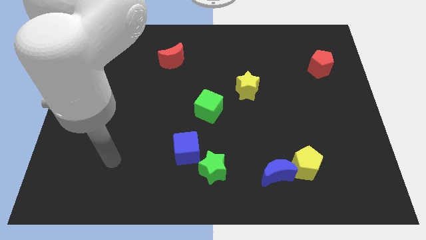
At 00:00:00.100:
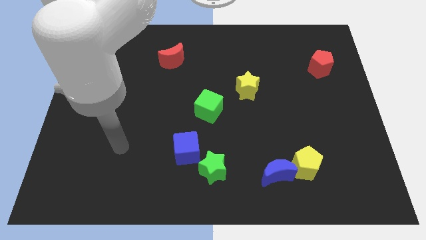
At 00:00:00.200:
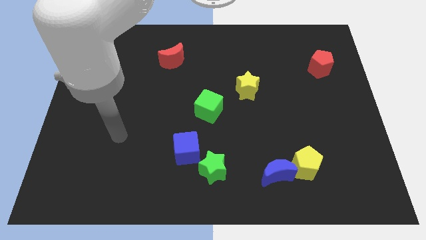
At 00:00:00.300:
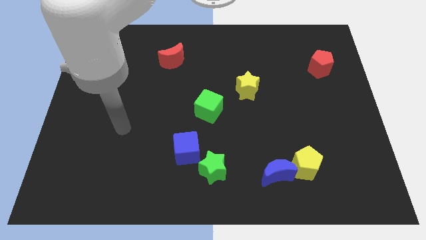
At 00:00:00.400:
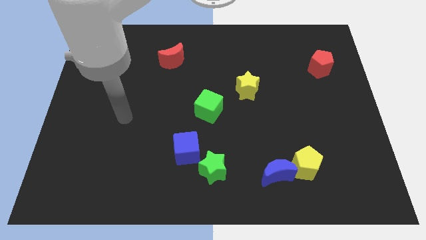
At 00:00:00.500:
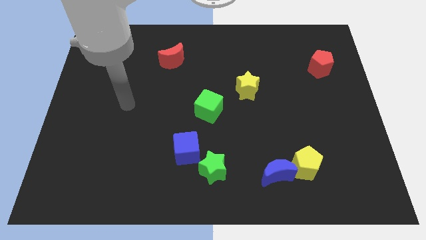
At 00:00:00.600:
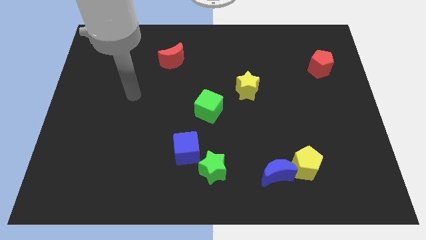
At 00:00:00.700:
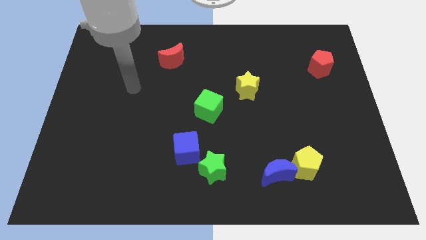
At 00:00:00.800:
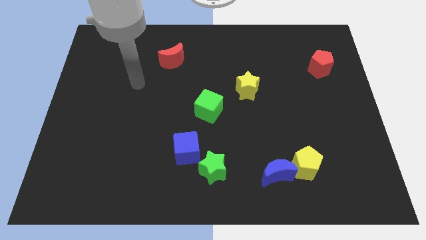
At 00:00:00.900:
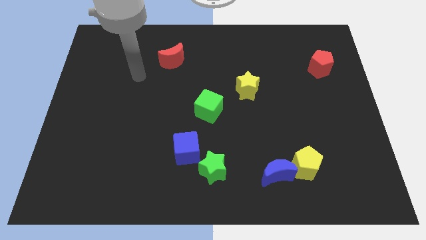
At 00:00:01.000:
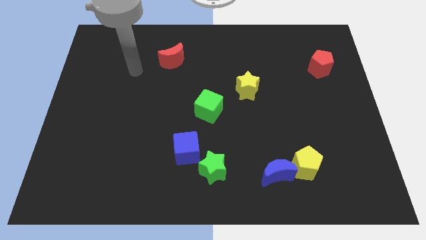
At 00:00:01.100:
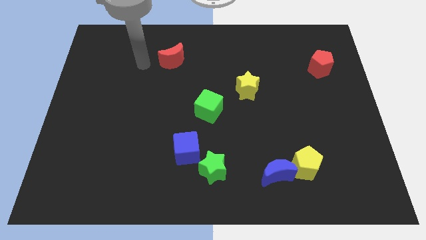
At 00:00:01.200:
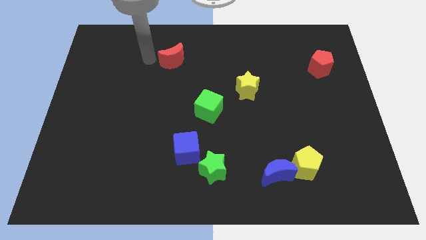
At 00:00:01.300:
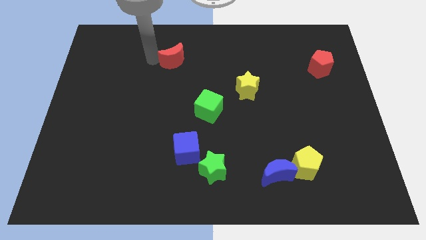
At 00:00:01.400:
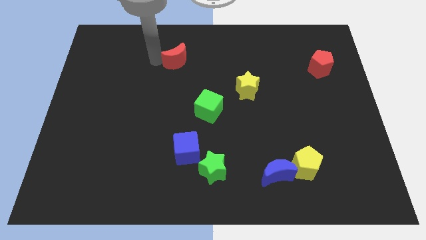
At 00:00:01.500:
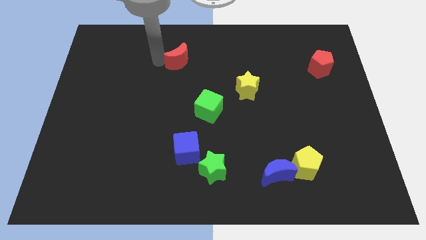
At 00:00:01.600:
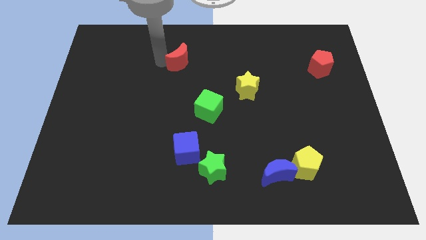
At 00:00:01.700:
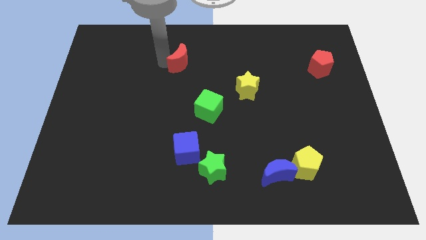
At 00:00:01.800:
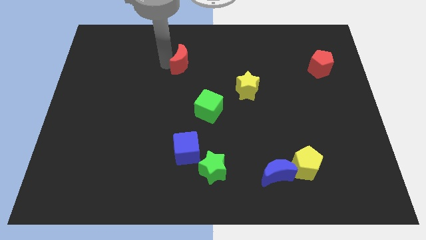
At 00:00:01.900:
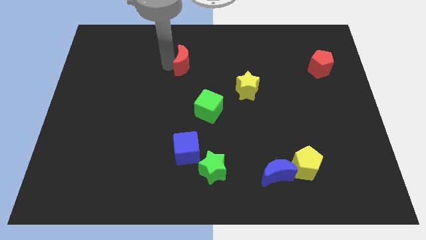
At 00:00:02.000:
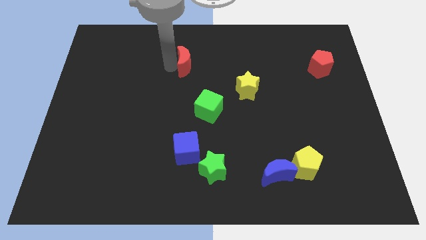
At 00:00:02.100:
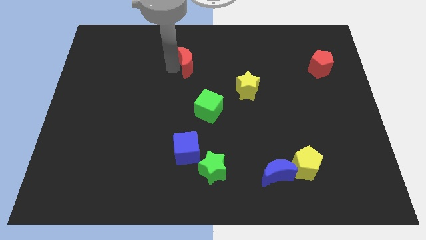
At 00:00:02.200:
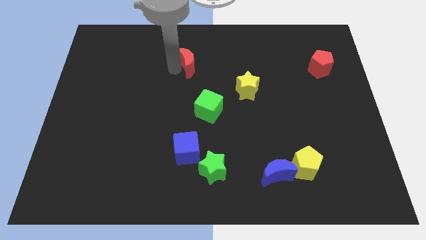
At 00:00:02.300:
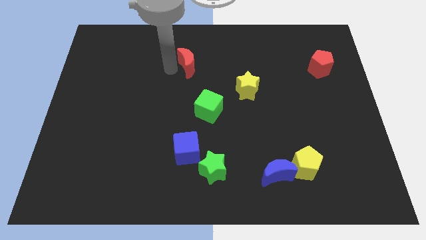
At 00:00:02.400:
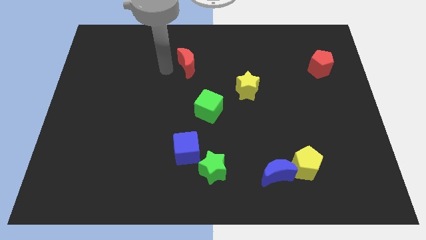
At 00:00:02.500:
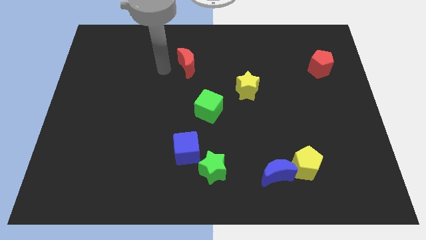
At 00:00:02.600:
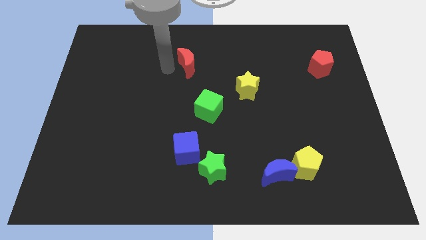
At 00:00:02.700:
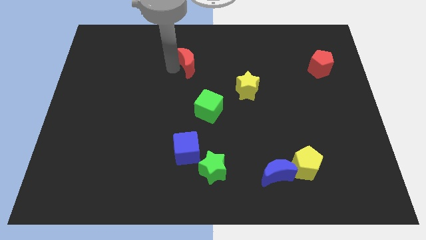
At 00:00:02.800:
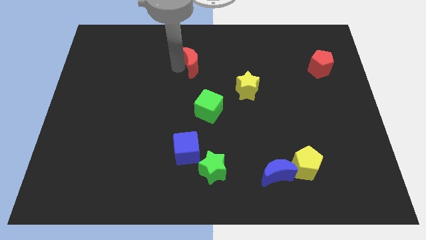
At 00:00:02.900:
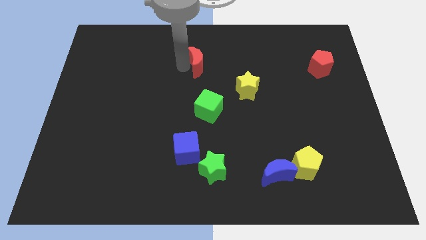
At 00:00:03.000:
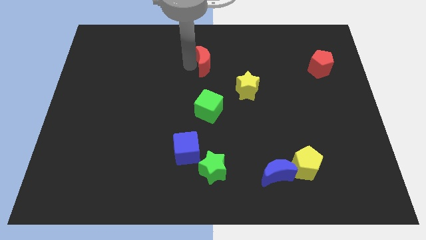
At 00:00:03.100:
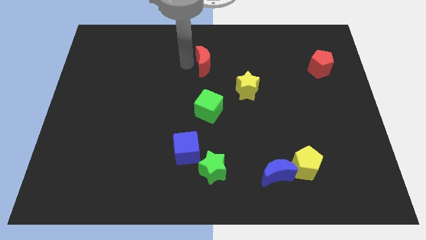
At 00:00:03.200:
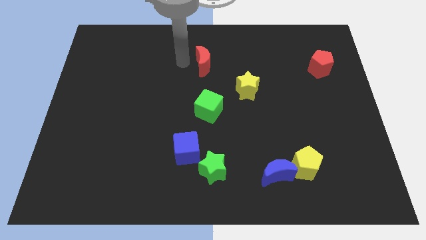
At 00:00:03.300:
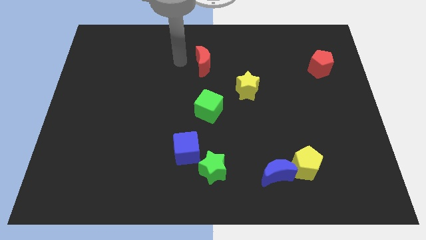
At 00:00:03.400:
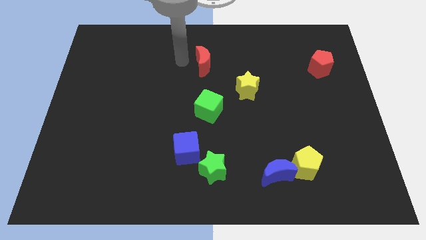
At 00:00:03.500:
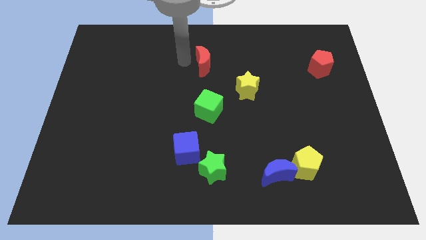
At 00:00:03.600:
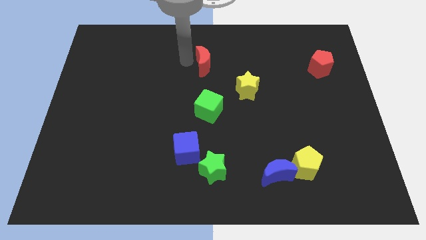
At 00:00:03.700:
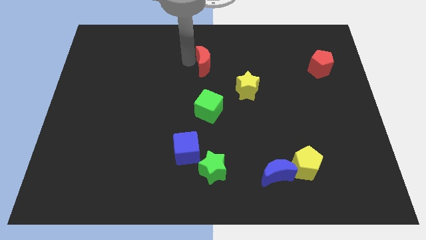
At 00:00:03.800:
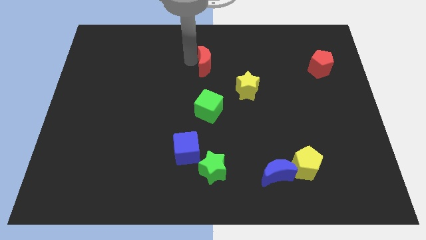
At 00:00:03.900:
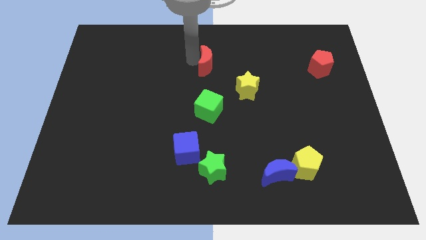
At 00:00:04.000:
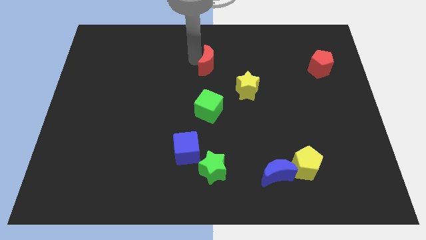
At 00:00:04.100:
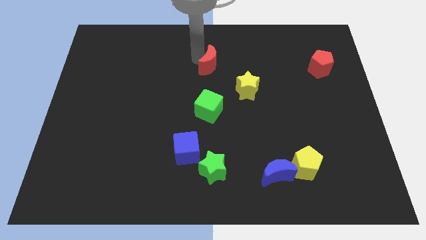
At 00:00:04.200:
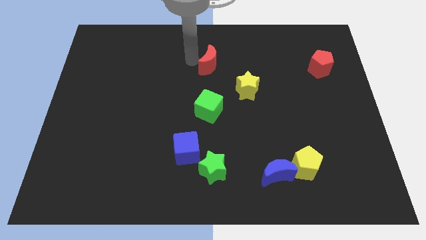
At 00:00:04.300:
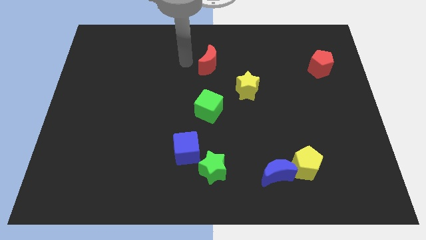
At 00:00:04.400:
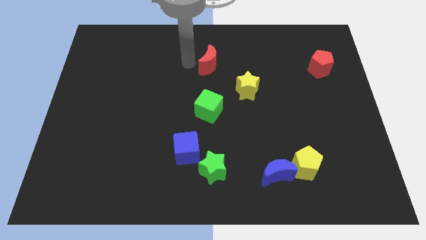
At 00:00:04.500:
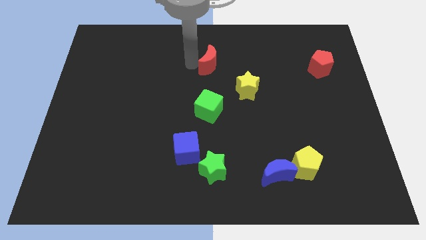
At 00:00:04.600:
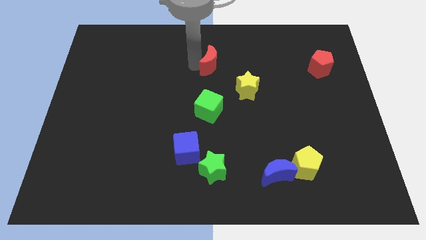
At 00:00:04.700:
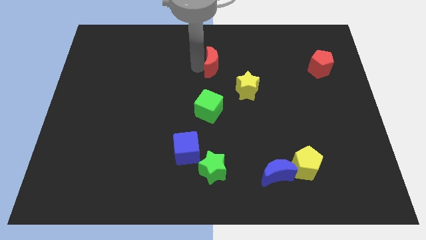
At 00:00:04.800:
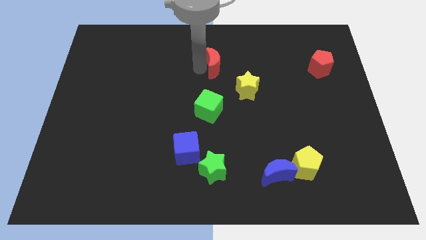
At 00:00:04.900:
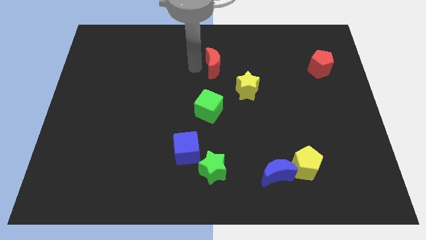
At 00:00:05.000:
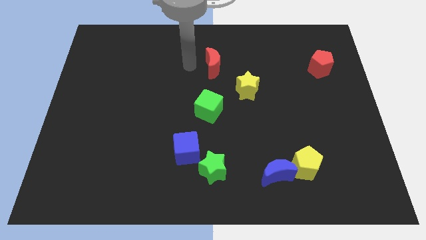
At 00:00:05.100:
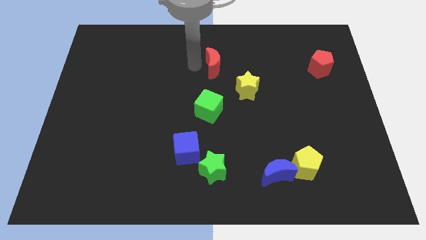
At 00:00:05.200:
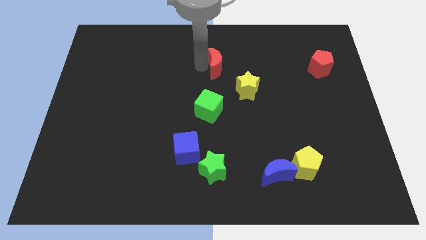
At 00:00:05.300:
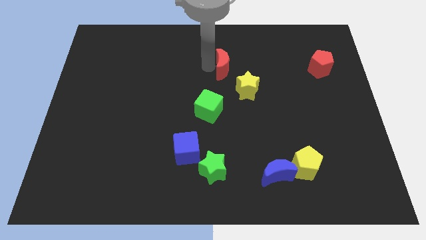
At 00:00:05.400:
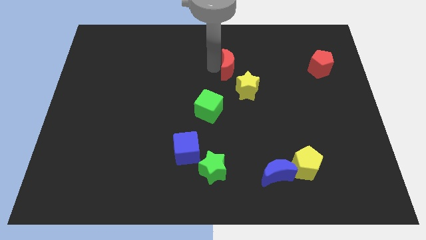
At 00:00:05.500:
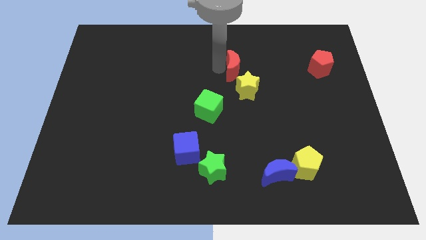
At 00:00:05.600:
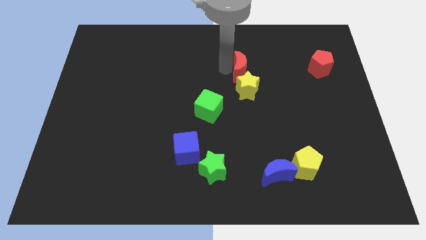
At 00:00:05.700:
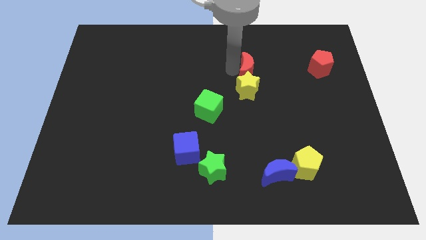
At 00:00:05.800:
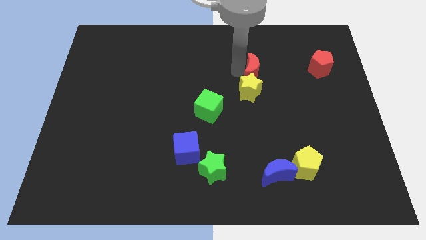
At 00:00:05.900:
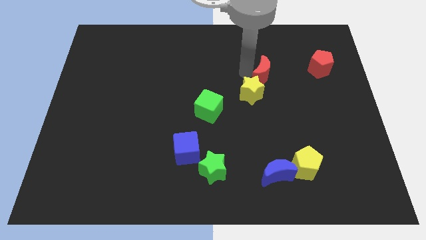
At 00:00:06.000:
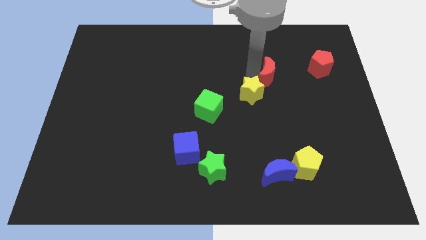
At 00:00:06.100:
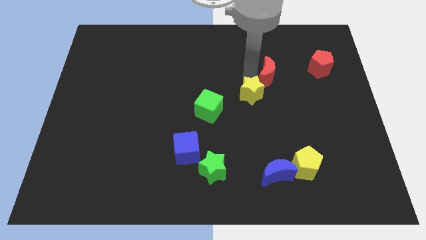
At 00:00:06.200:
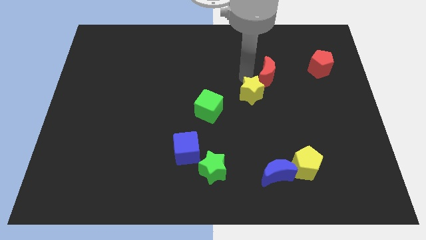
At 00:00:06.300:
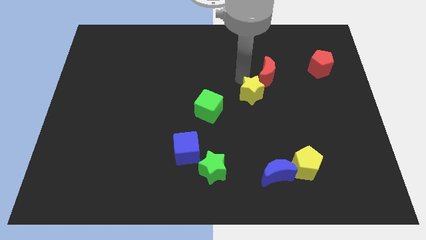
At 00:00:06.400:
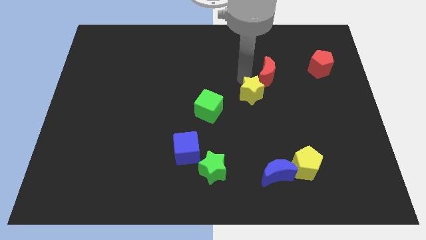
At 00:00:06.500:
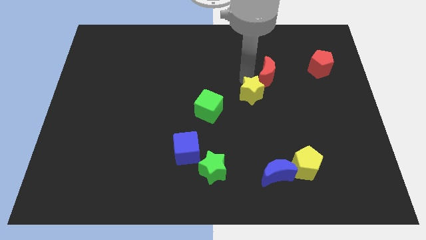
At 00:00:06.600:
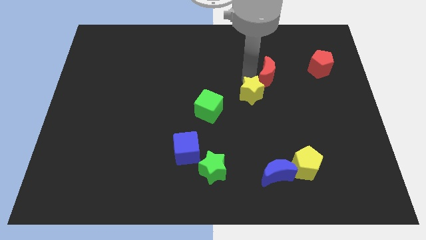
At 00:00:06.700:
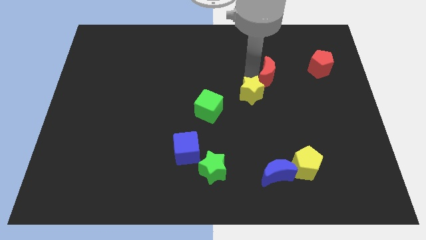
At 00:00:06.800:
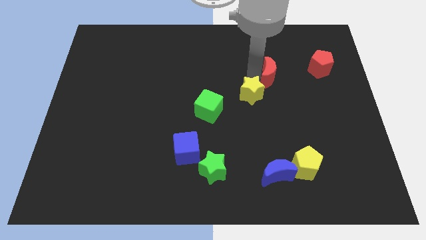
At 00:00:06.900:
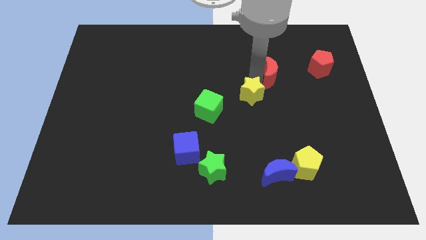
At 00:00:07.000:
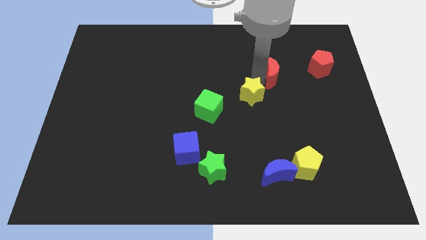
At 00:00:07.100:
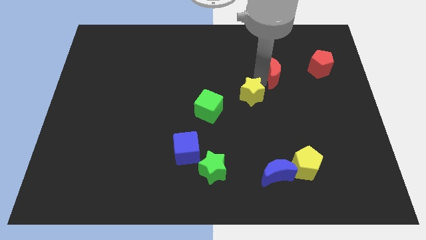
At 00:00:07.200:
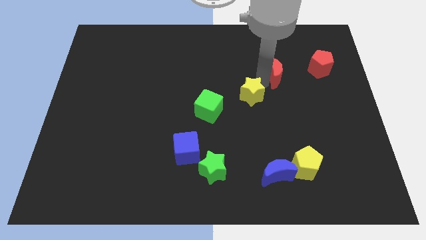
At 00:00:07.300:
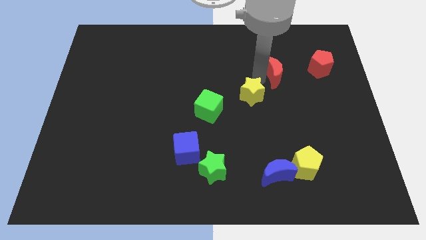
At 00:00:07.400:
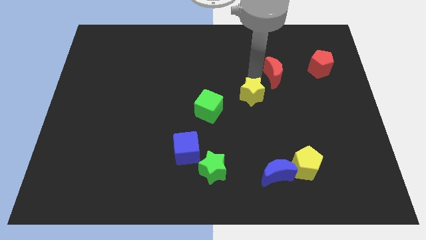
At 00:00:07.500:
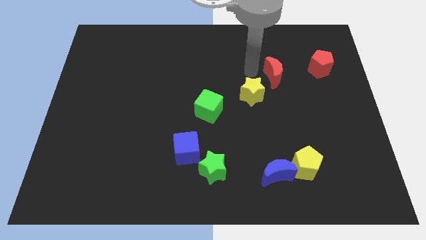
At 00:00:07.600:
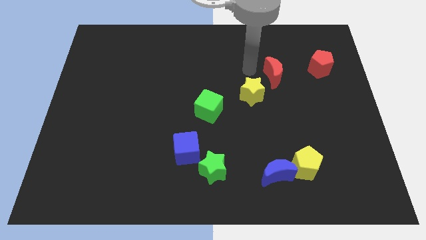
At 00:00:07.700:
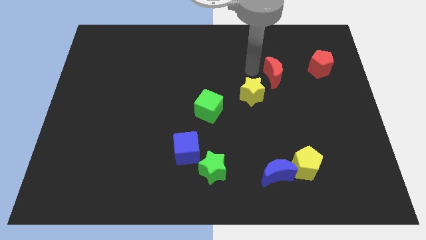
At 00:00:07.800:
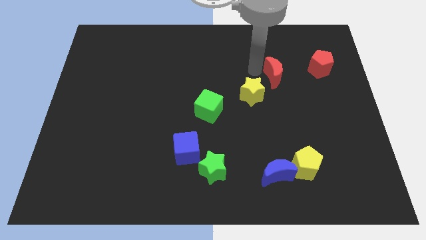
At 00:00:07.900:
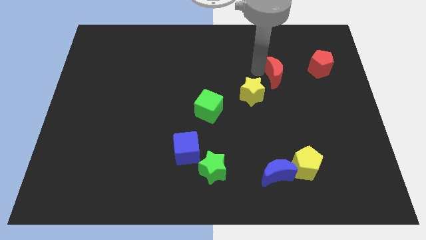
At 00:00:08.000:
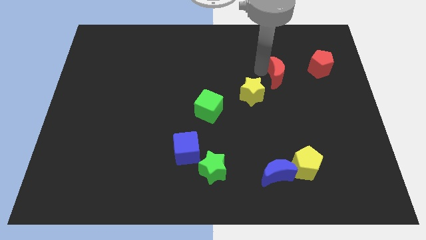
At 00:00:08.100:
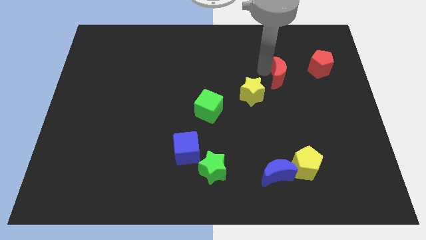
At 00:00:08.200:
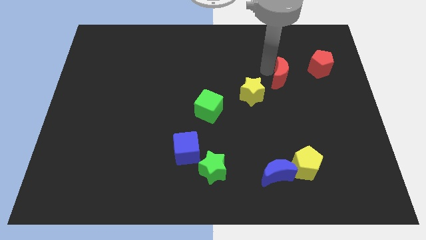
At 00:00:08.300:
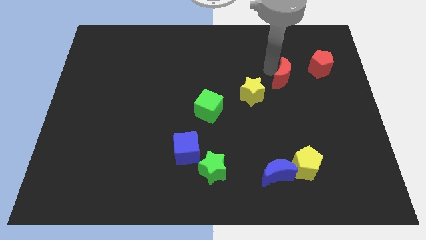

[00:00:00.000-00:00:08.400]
push the red moon diagonally down and to the left of the red pentagon
